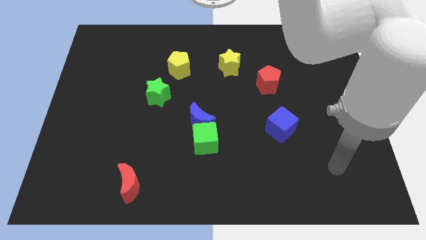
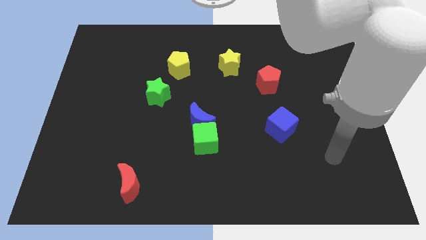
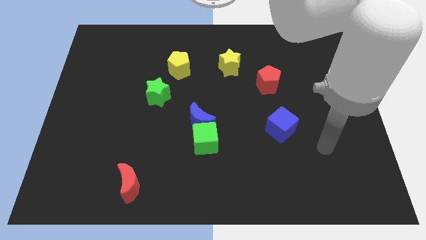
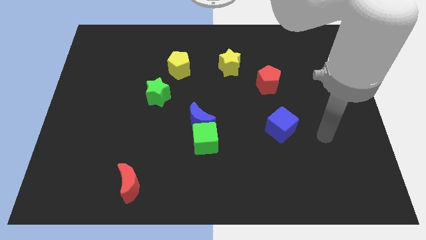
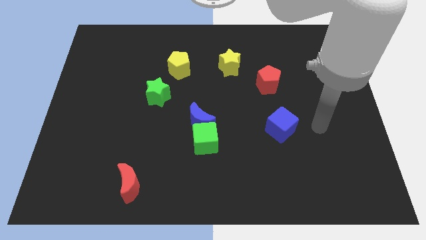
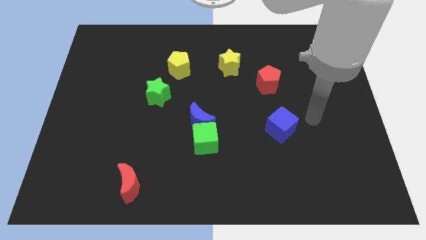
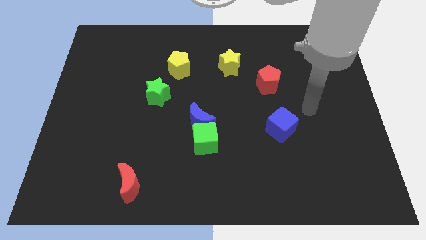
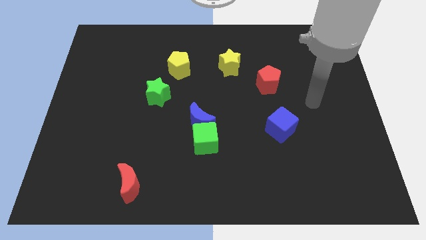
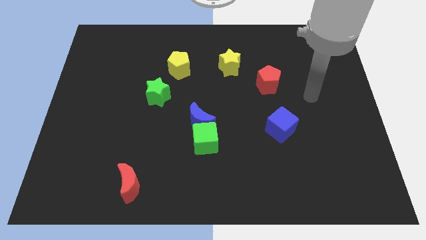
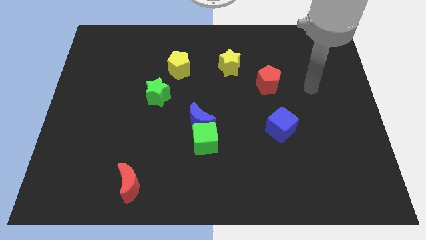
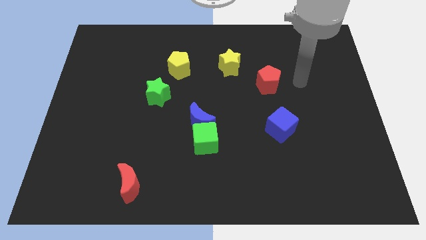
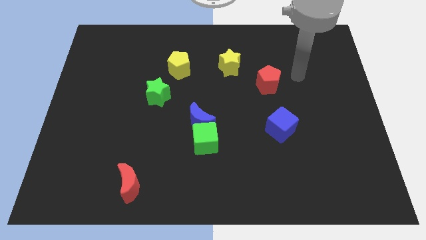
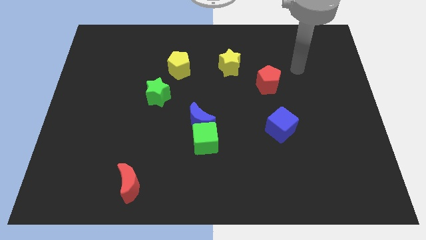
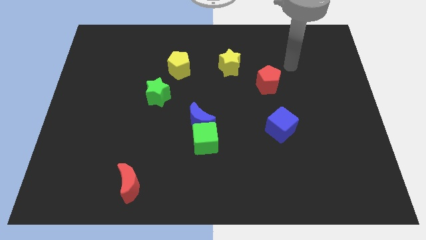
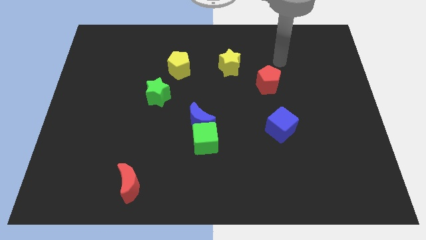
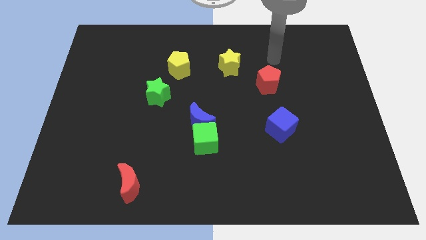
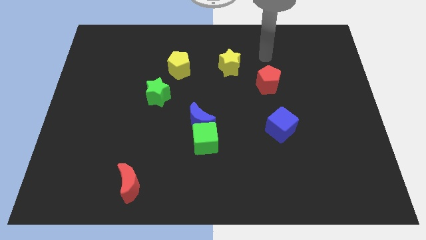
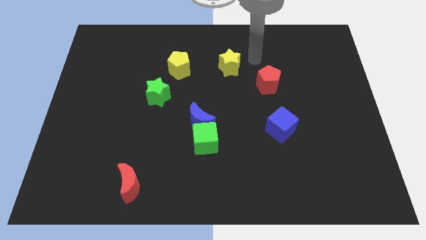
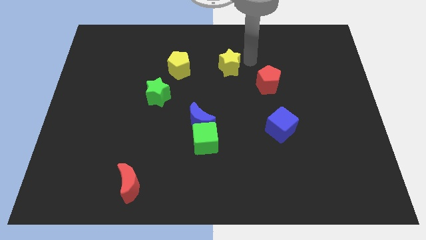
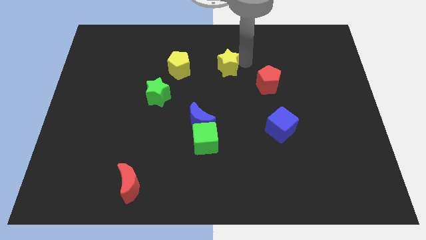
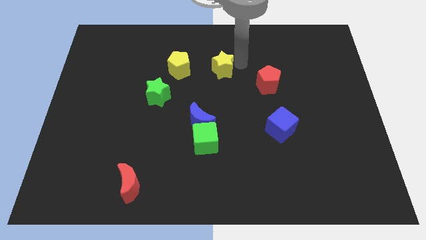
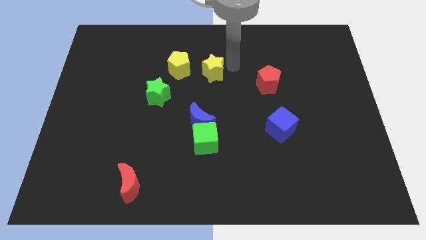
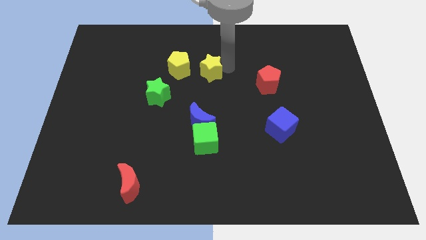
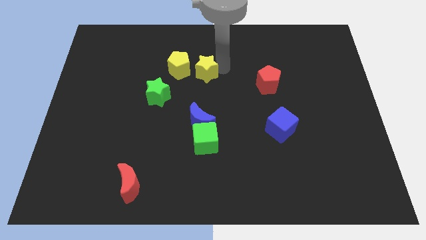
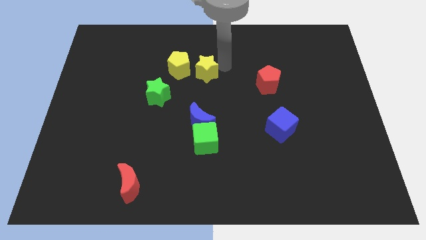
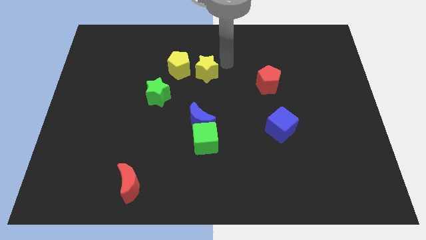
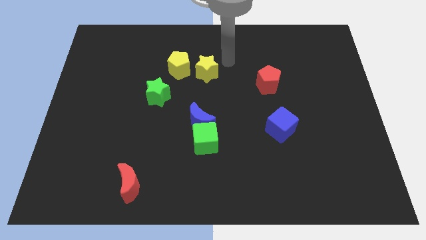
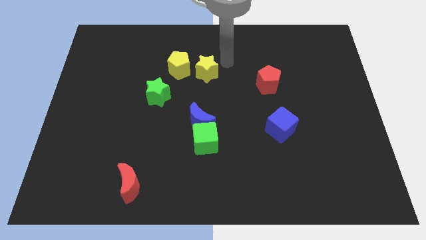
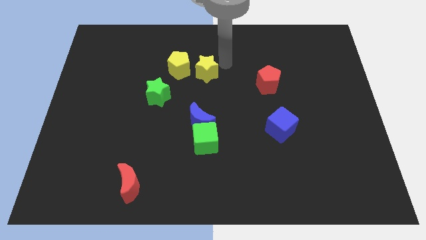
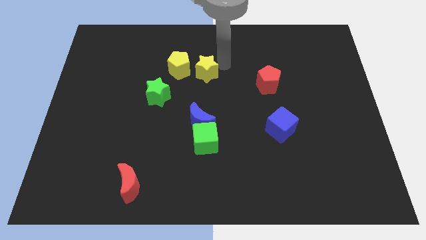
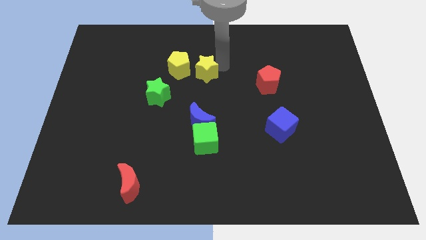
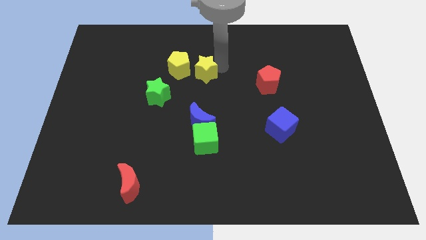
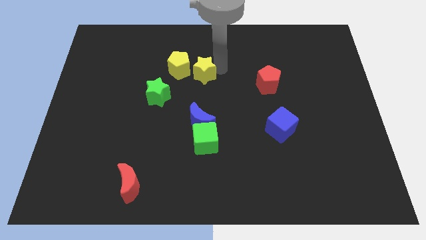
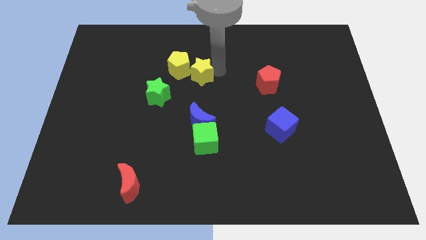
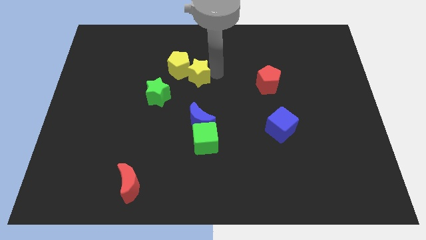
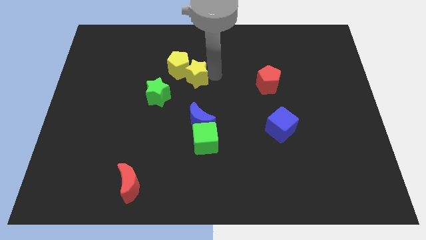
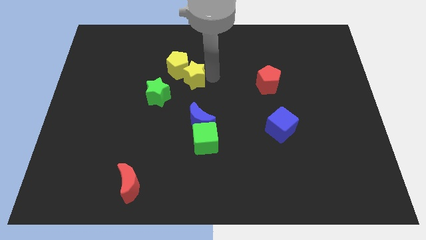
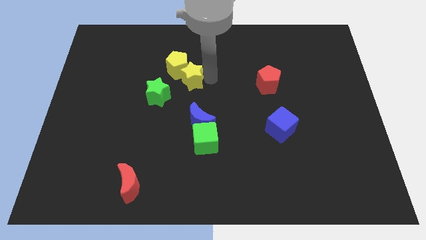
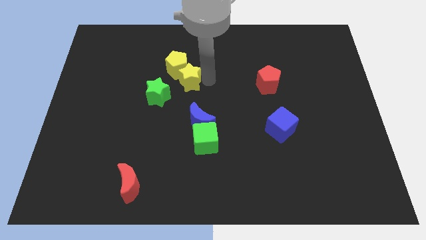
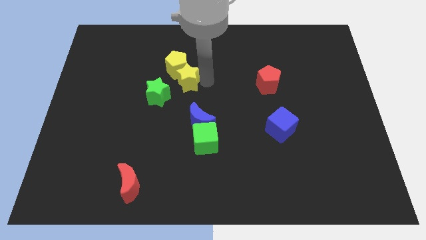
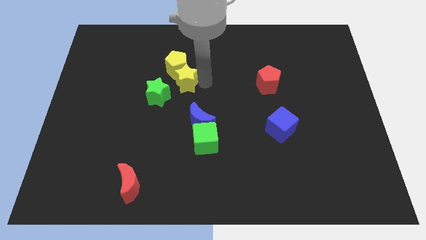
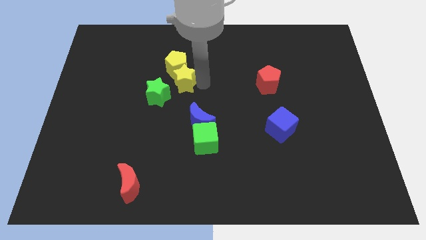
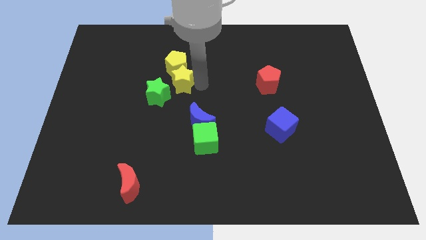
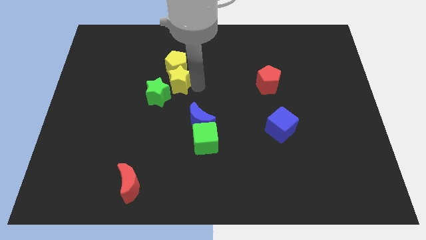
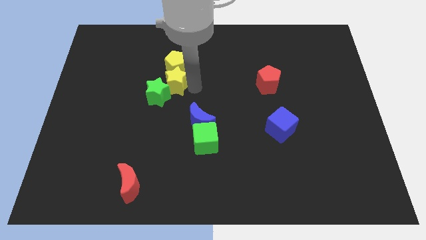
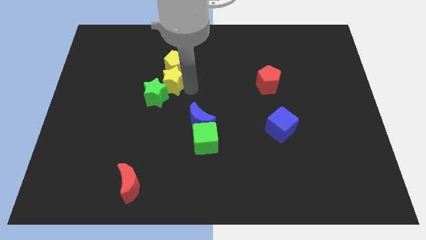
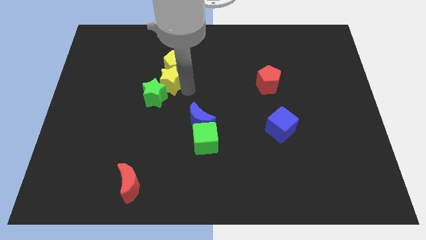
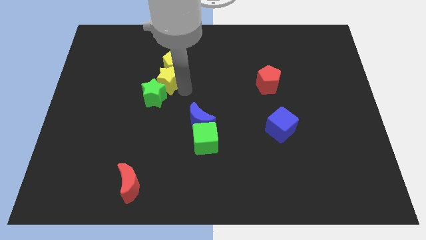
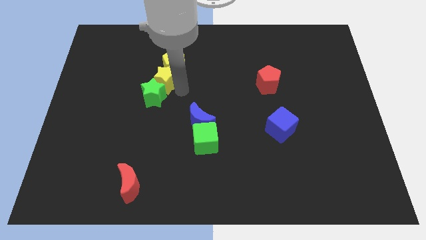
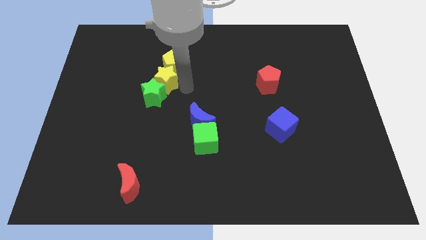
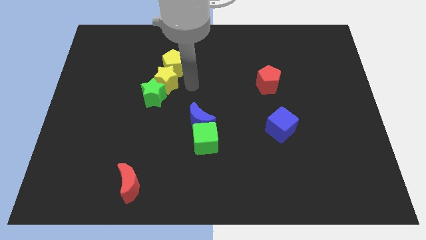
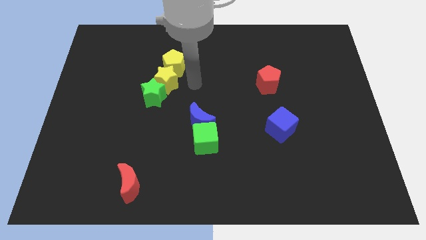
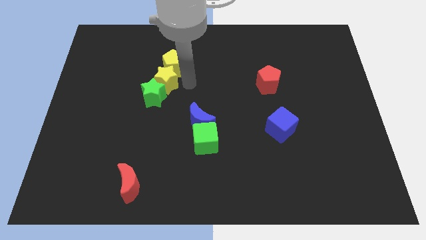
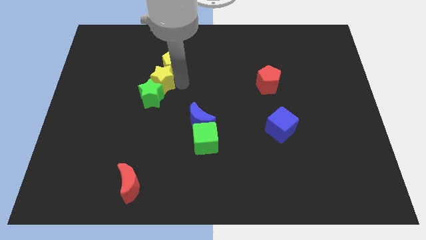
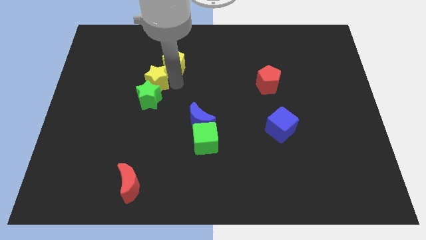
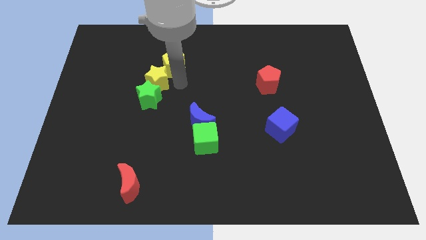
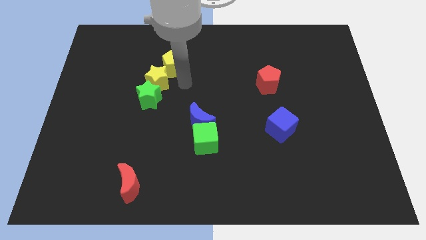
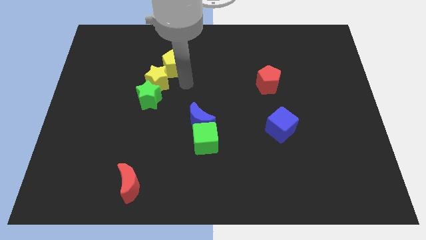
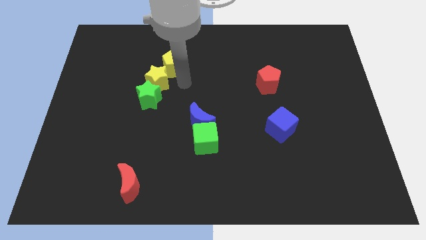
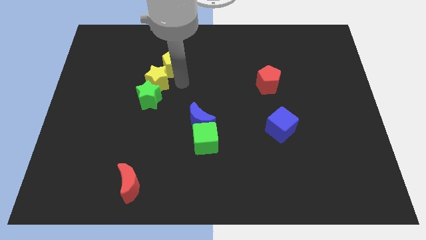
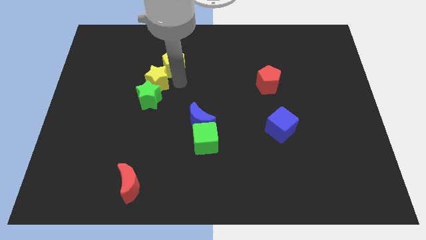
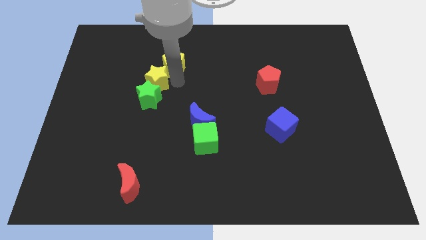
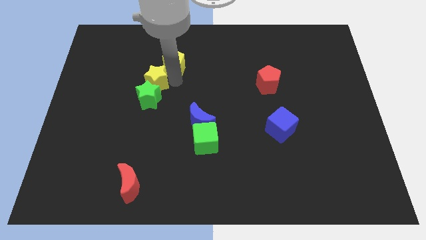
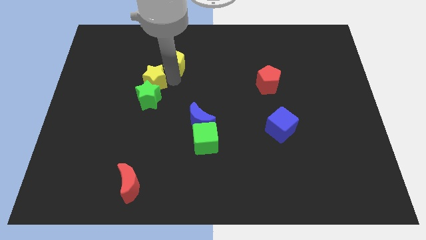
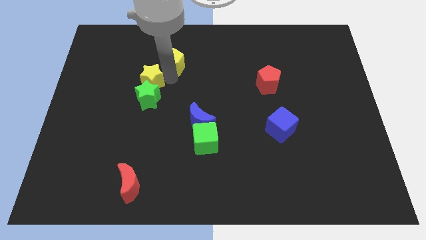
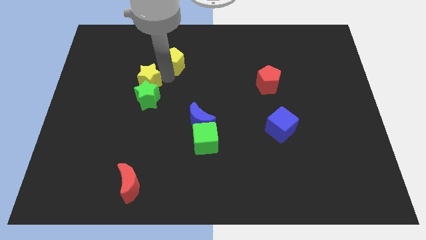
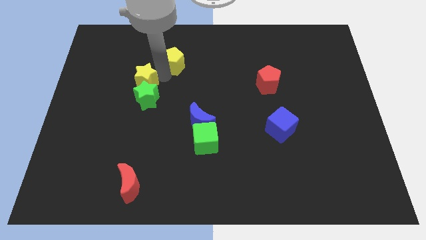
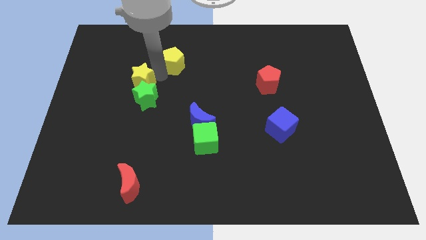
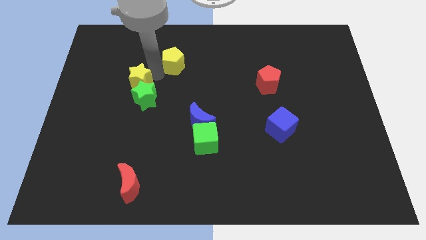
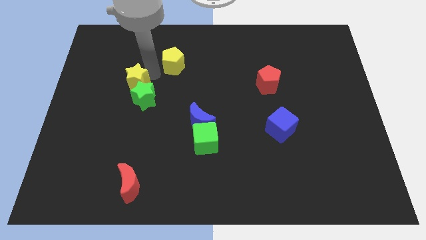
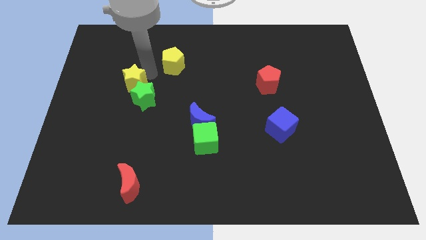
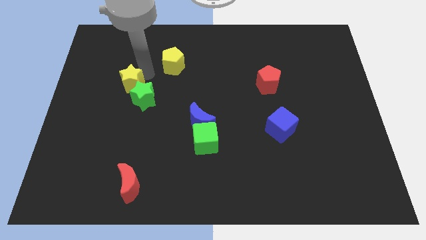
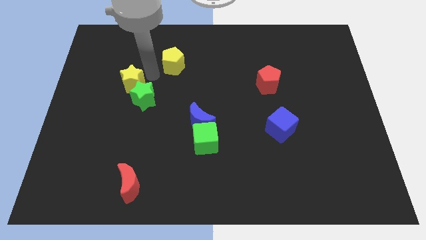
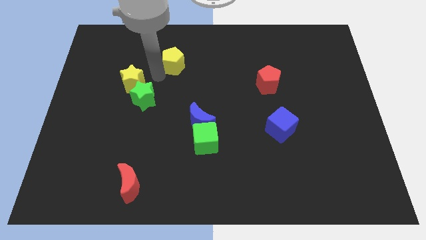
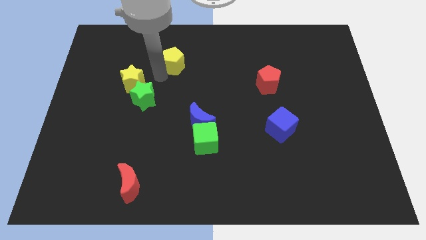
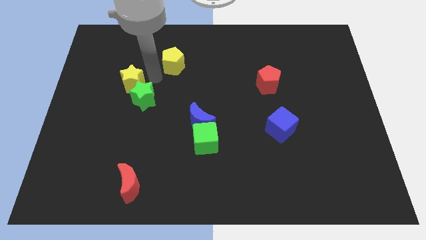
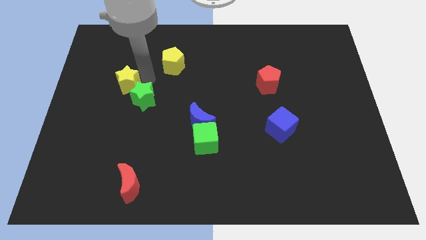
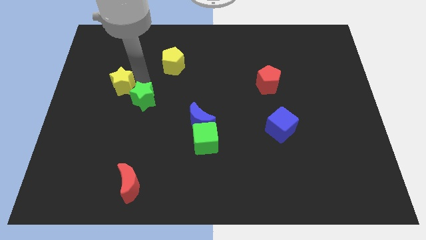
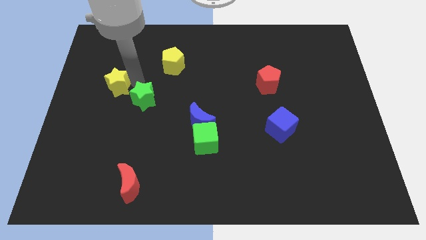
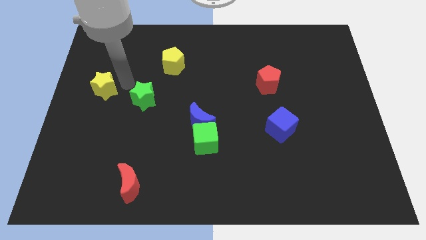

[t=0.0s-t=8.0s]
push the yellow star to the center left
